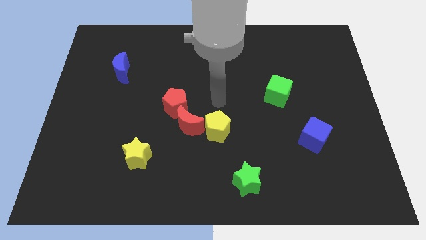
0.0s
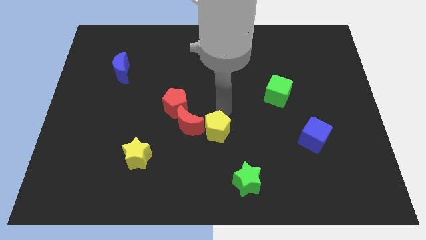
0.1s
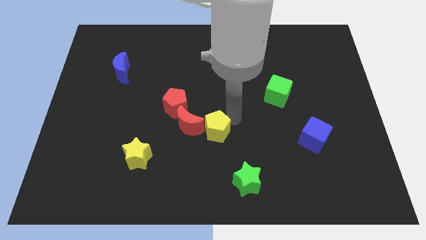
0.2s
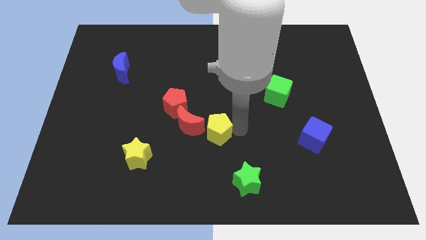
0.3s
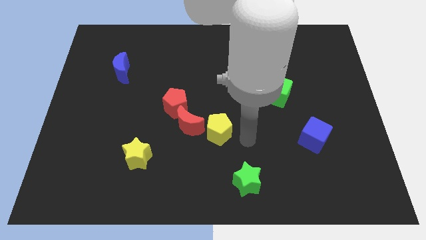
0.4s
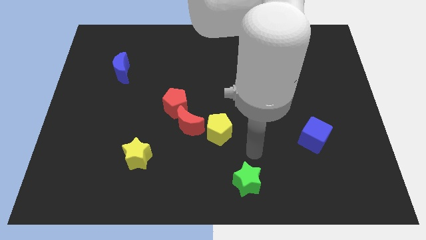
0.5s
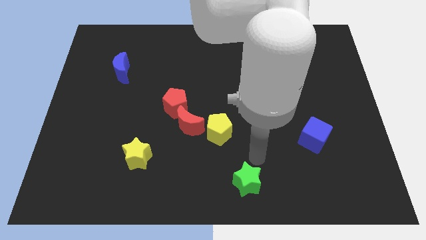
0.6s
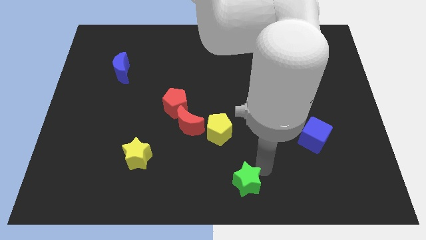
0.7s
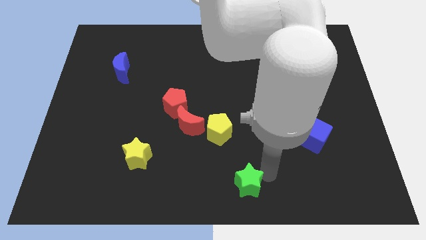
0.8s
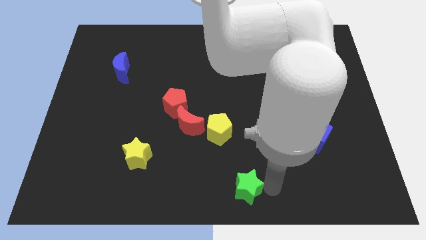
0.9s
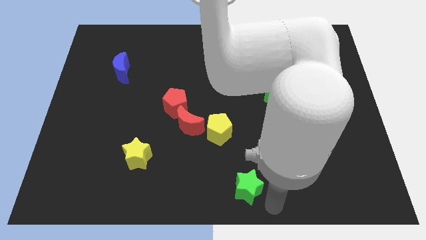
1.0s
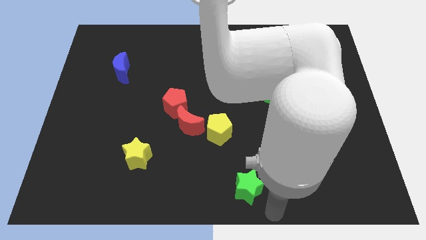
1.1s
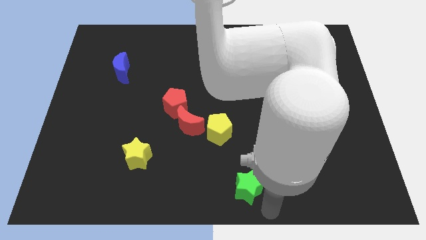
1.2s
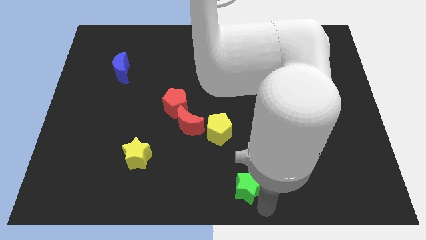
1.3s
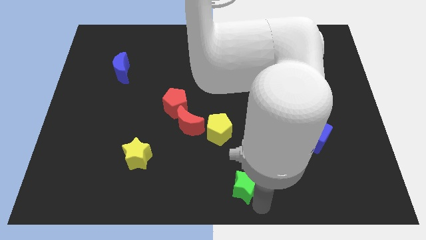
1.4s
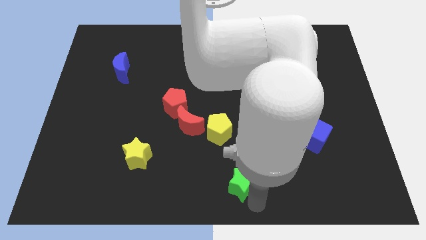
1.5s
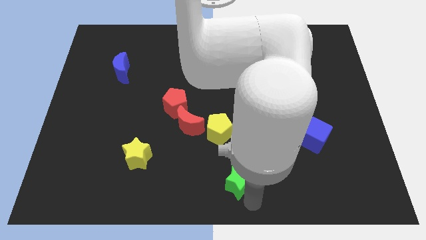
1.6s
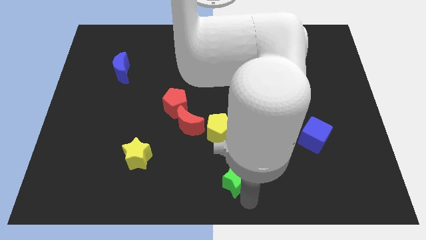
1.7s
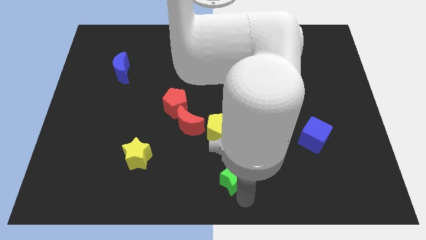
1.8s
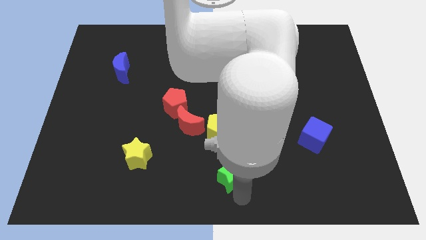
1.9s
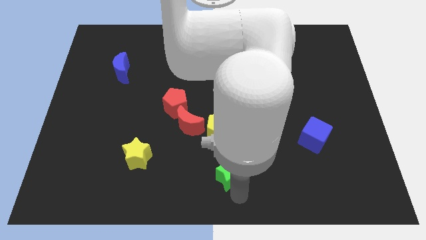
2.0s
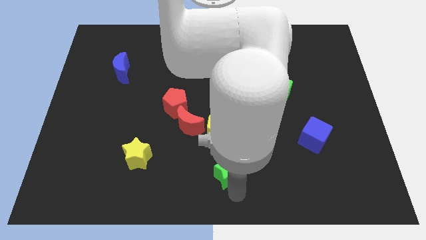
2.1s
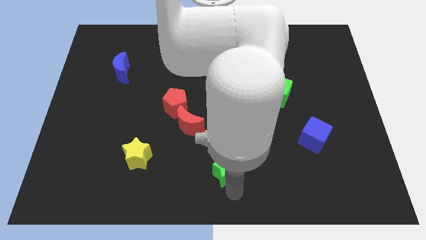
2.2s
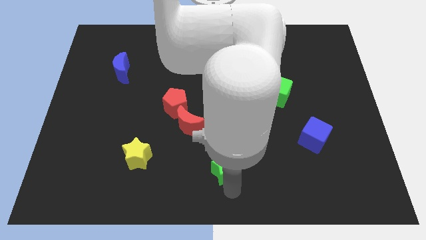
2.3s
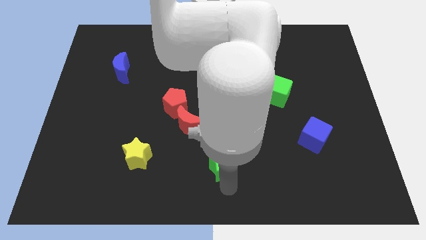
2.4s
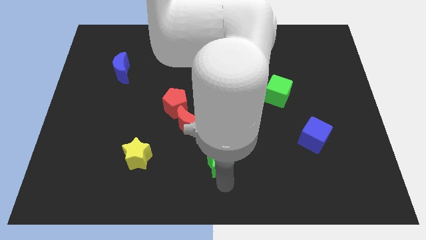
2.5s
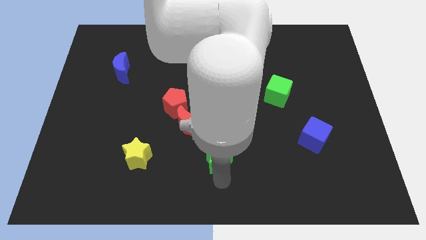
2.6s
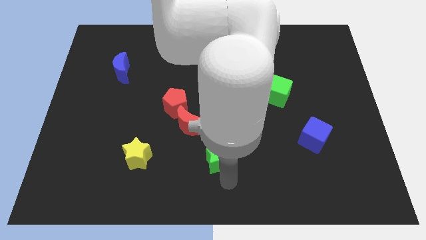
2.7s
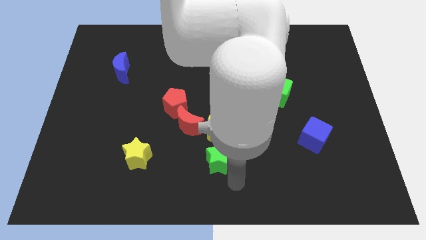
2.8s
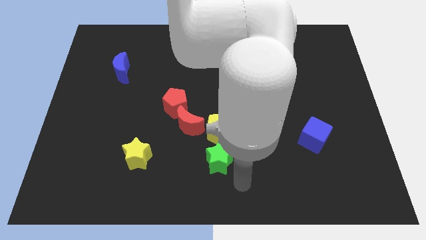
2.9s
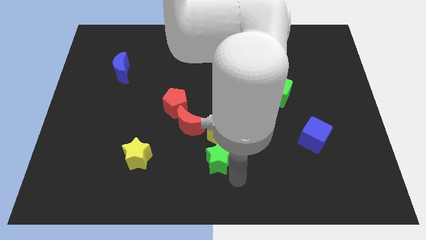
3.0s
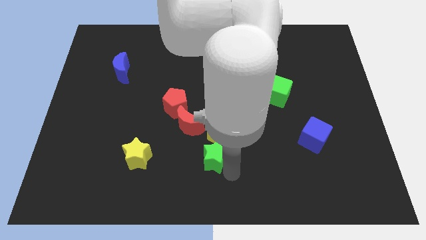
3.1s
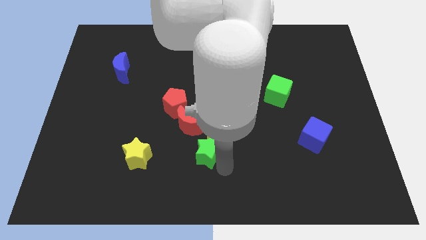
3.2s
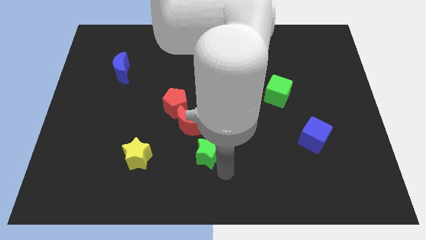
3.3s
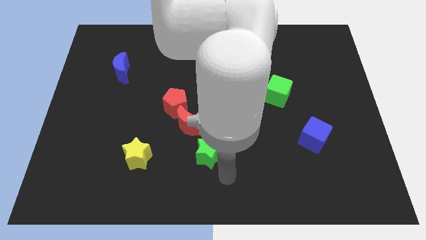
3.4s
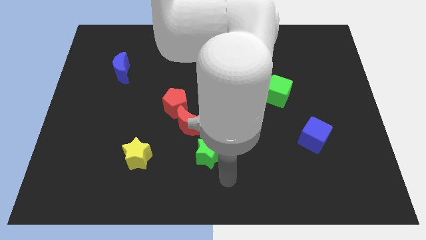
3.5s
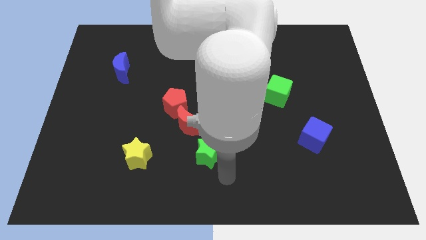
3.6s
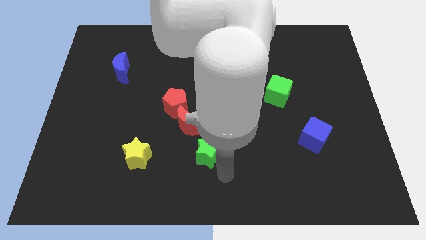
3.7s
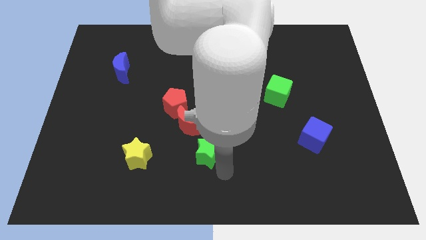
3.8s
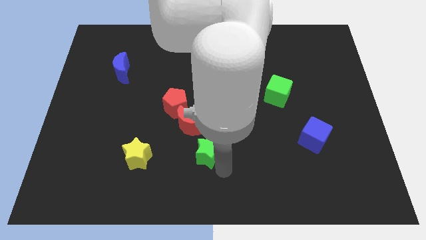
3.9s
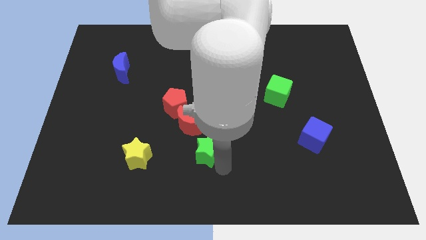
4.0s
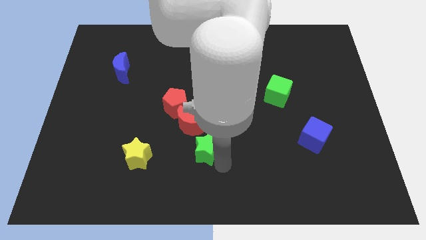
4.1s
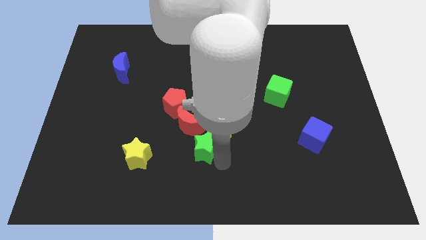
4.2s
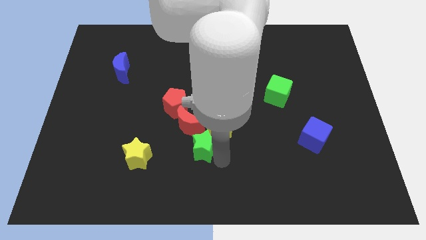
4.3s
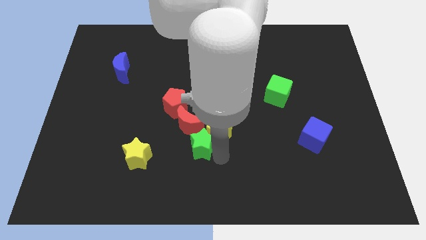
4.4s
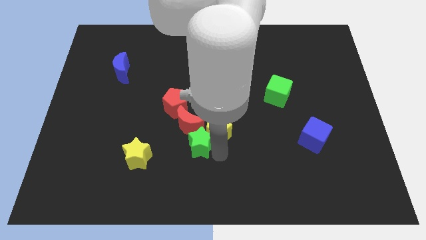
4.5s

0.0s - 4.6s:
push the green star next to the red moon

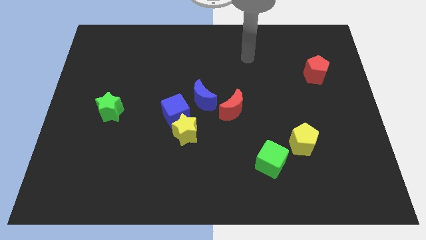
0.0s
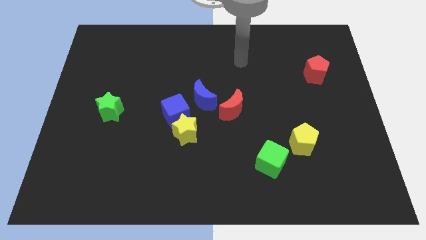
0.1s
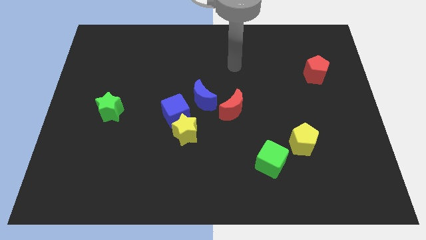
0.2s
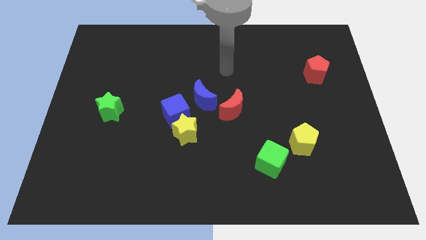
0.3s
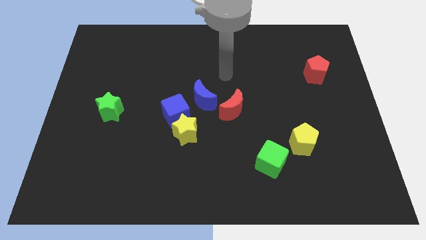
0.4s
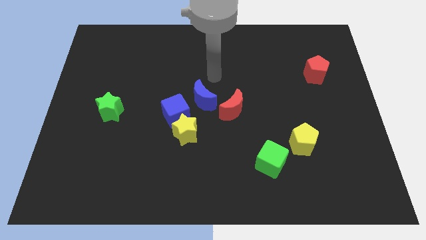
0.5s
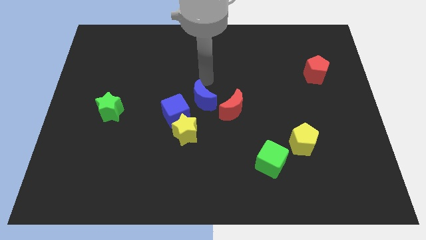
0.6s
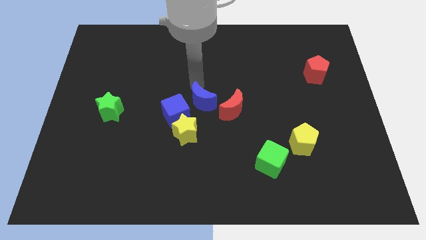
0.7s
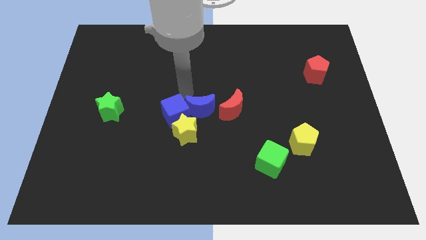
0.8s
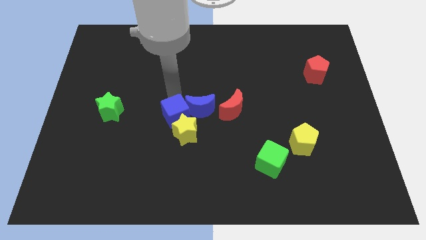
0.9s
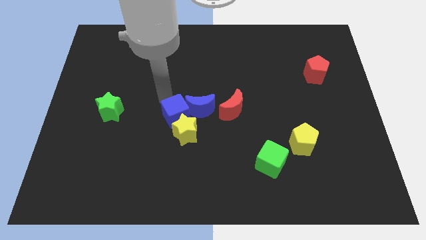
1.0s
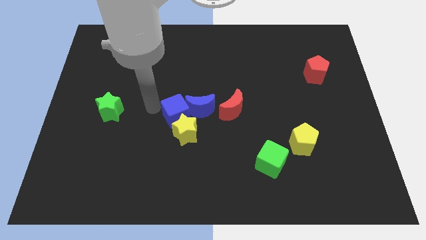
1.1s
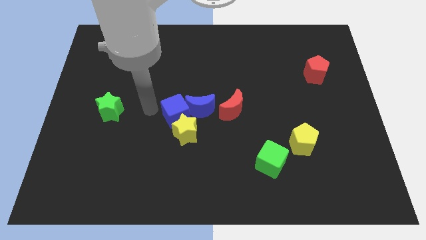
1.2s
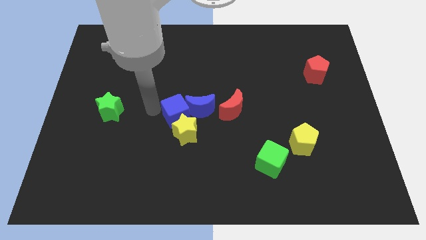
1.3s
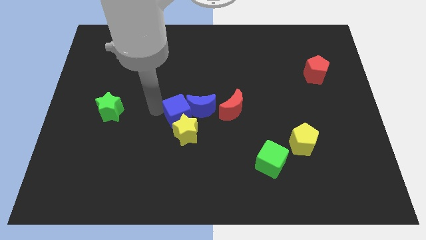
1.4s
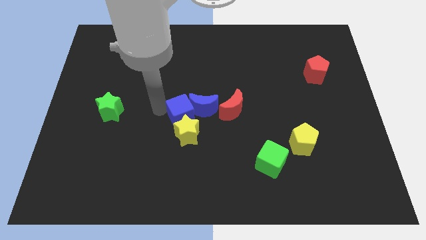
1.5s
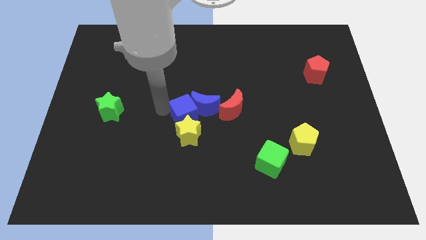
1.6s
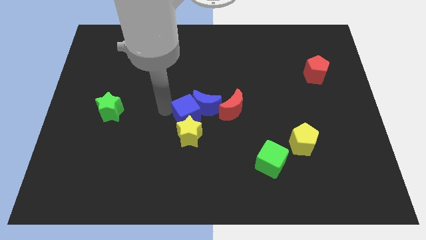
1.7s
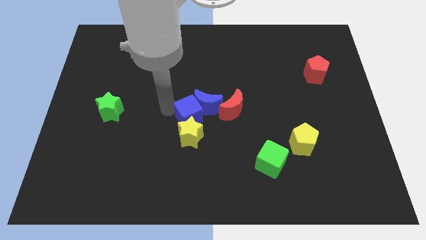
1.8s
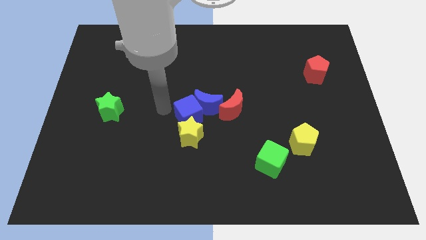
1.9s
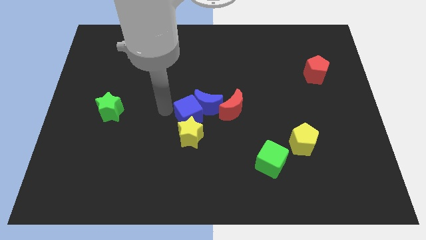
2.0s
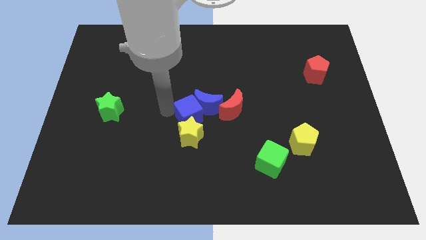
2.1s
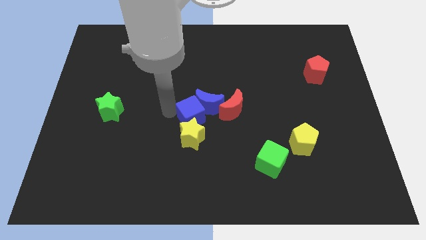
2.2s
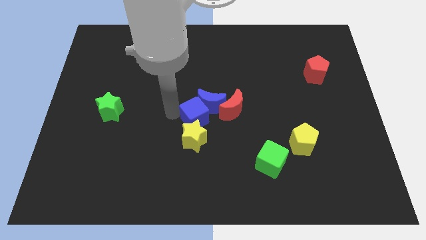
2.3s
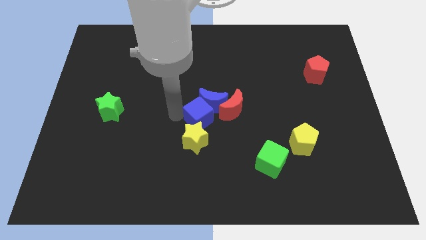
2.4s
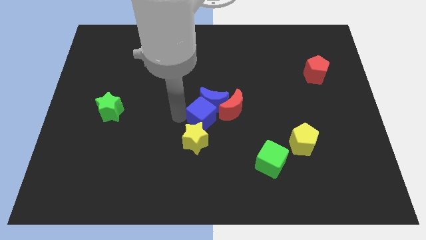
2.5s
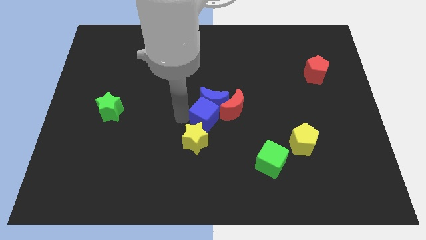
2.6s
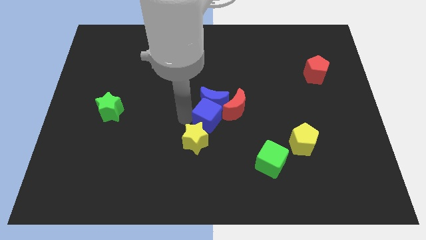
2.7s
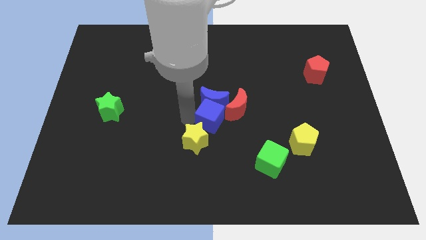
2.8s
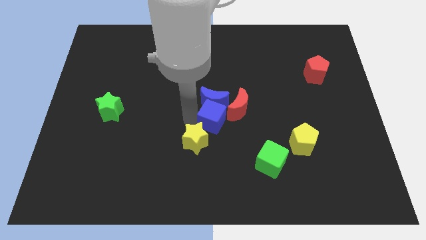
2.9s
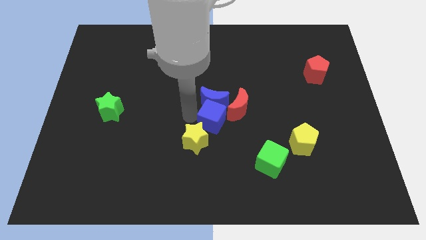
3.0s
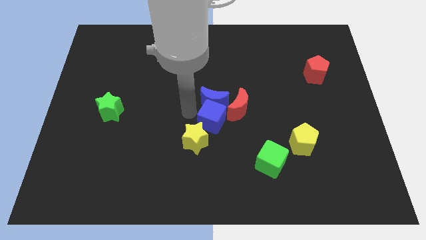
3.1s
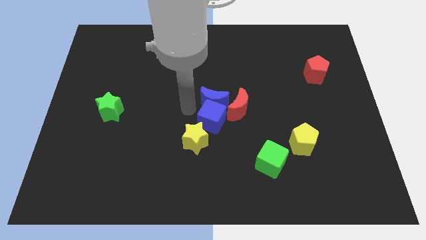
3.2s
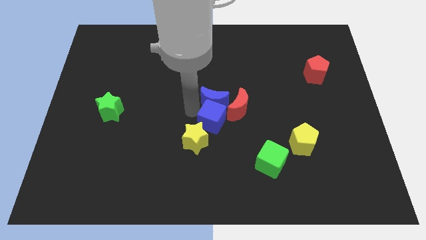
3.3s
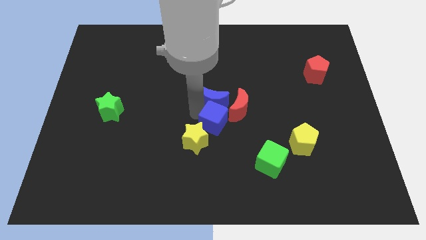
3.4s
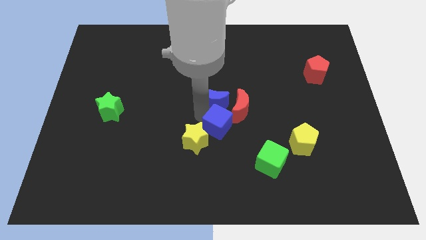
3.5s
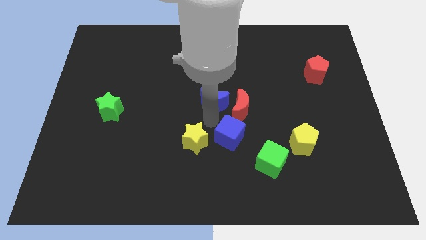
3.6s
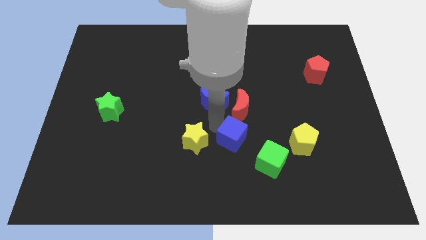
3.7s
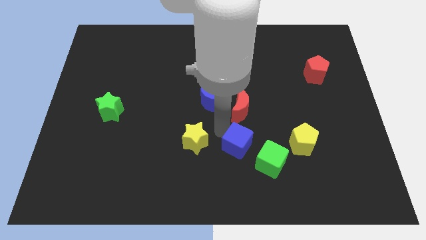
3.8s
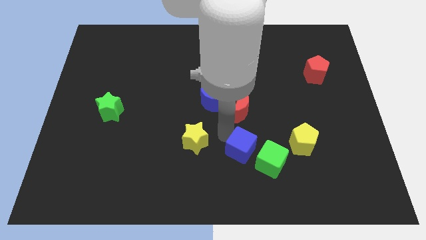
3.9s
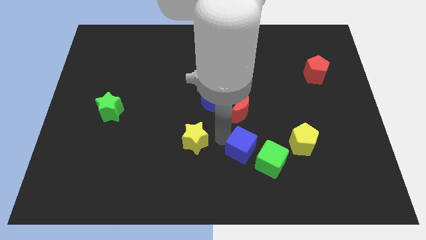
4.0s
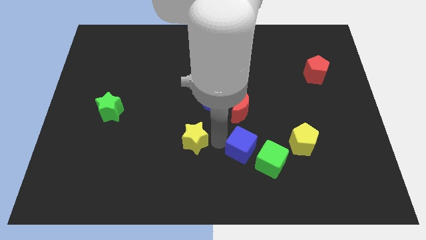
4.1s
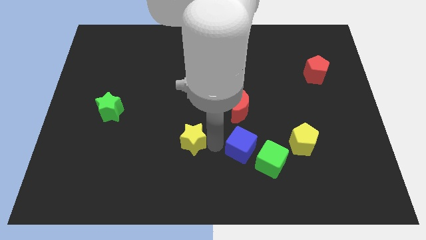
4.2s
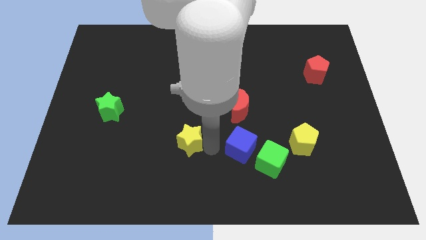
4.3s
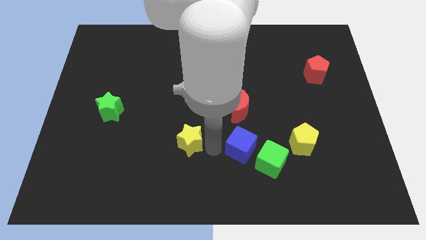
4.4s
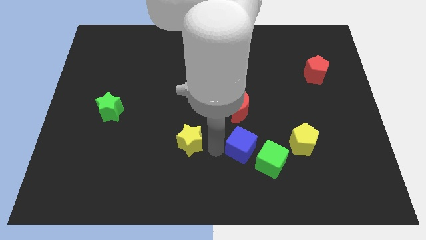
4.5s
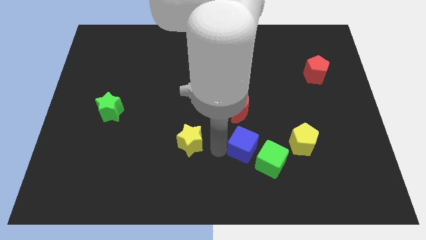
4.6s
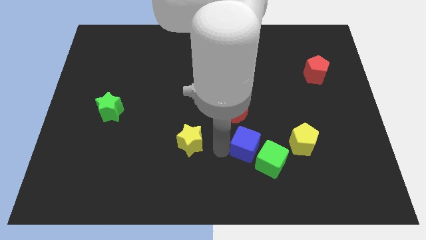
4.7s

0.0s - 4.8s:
put the blue cube next to the green cube
